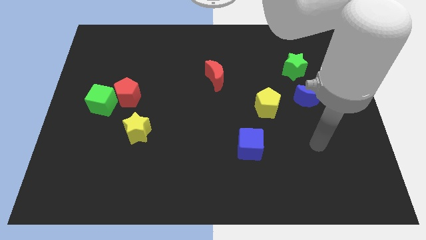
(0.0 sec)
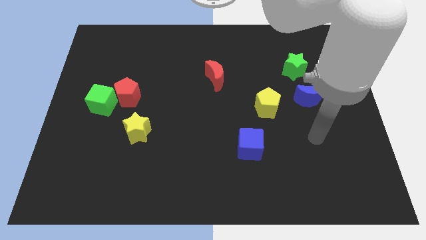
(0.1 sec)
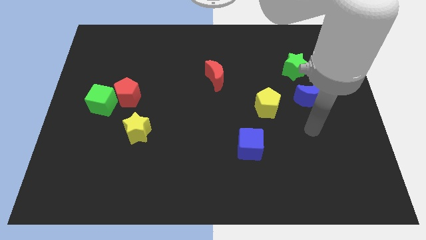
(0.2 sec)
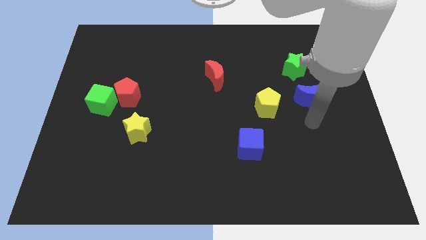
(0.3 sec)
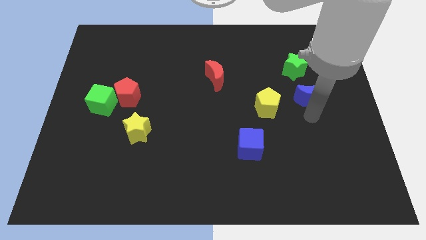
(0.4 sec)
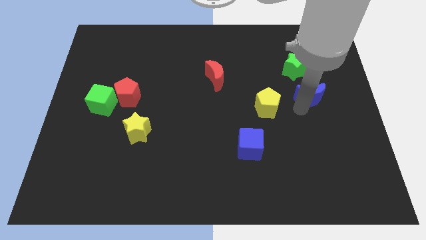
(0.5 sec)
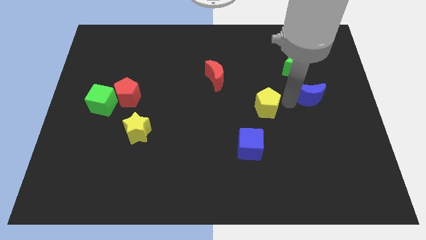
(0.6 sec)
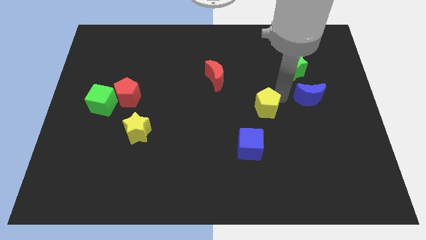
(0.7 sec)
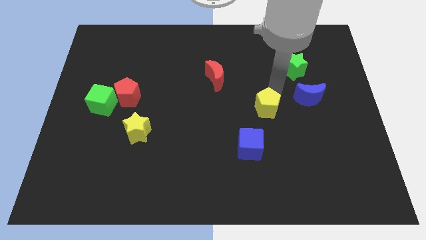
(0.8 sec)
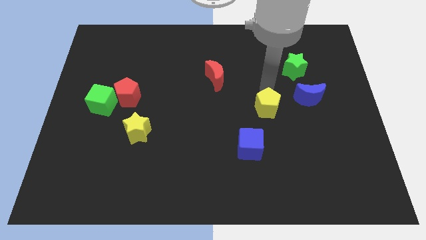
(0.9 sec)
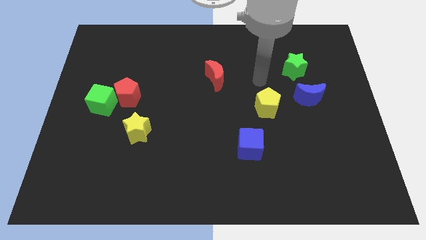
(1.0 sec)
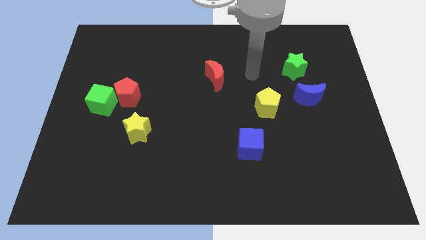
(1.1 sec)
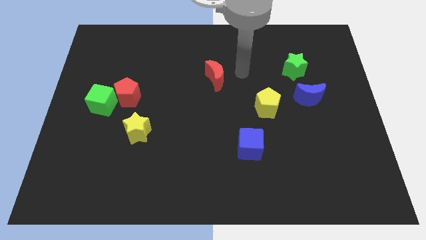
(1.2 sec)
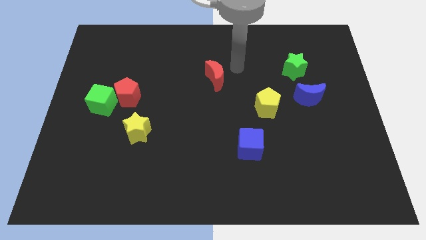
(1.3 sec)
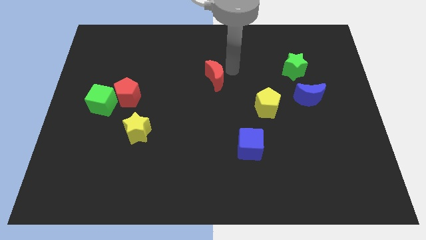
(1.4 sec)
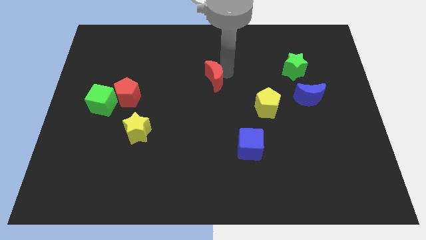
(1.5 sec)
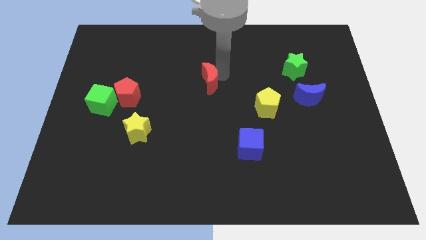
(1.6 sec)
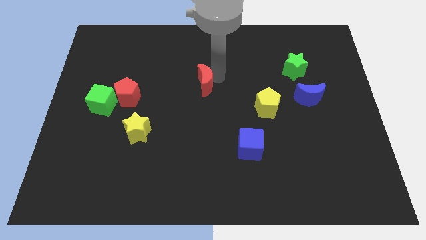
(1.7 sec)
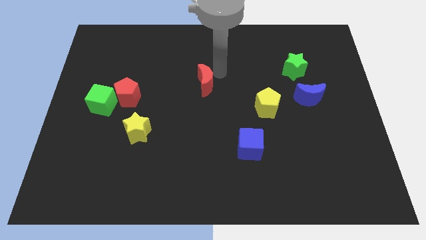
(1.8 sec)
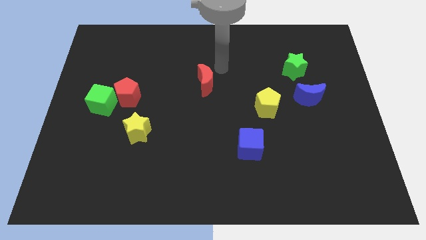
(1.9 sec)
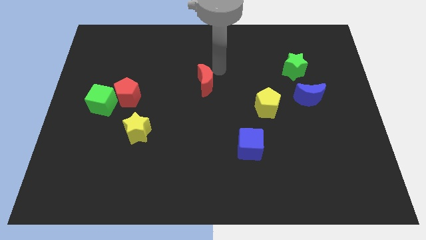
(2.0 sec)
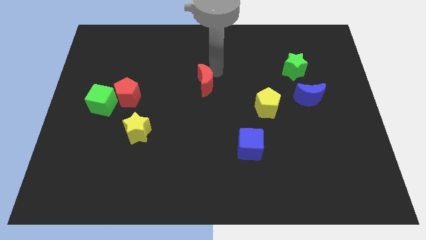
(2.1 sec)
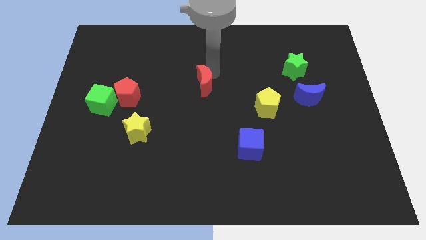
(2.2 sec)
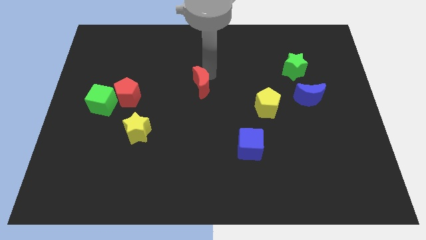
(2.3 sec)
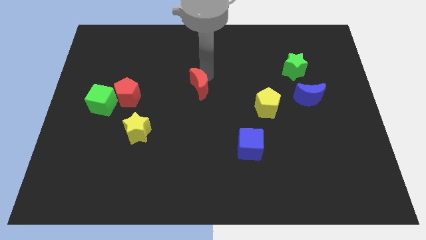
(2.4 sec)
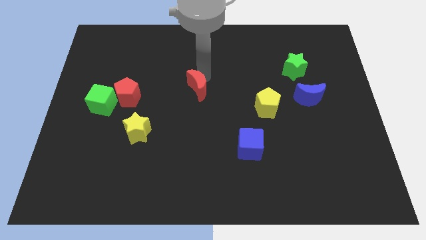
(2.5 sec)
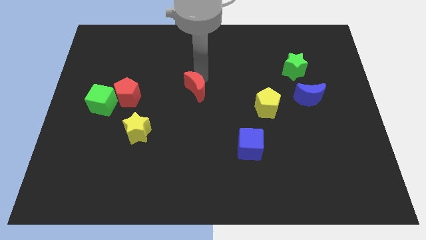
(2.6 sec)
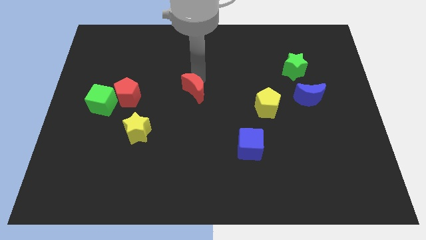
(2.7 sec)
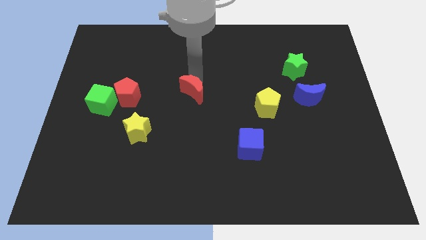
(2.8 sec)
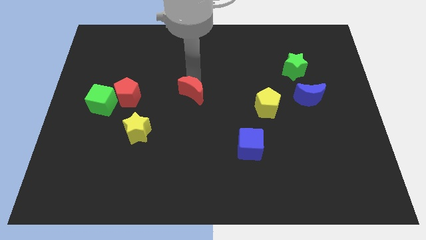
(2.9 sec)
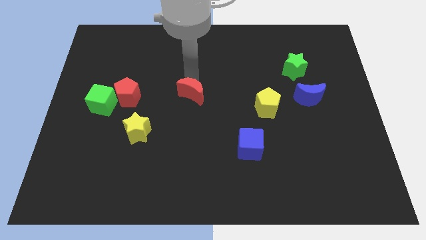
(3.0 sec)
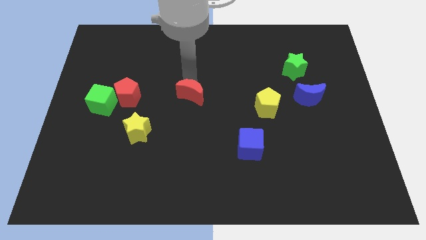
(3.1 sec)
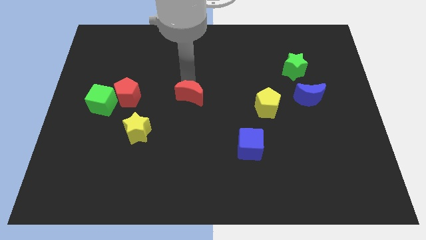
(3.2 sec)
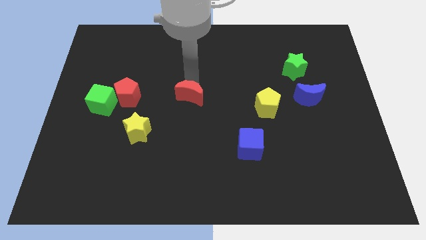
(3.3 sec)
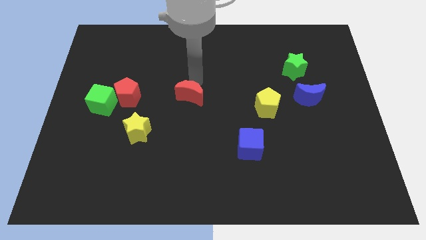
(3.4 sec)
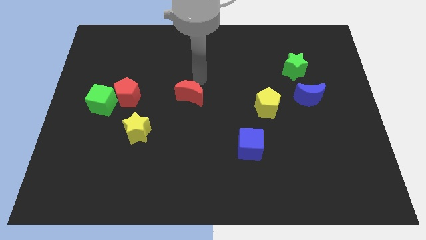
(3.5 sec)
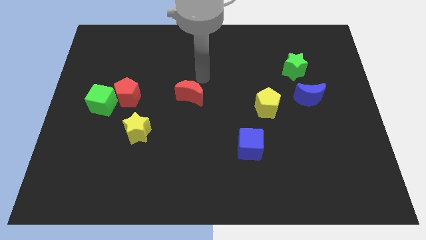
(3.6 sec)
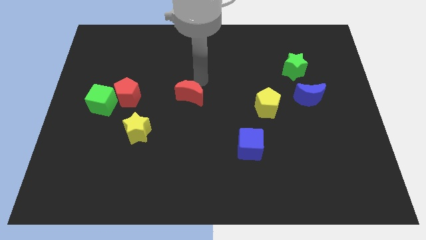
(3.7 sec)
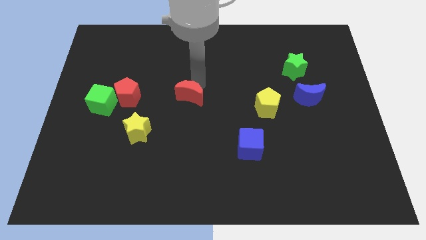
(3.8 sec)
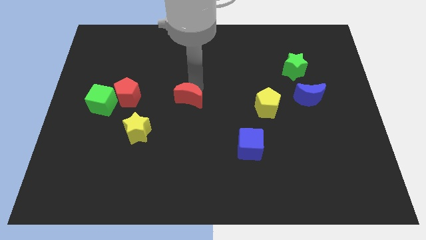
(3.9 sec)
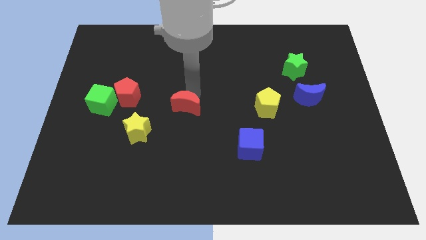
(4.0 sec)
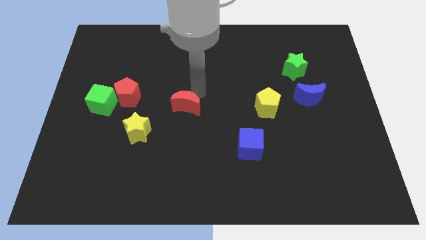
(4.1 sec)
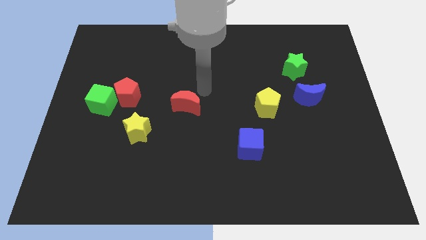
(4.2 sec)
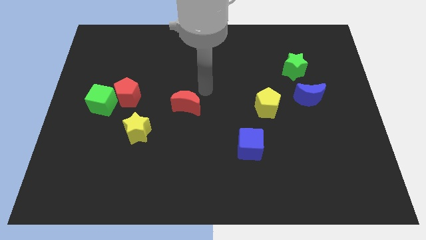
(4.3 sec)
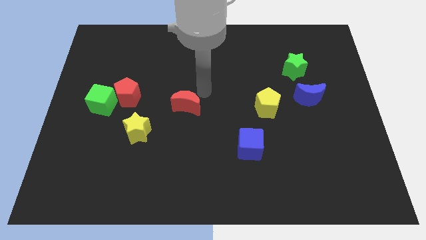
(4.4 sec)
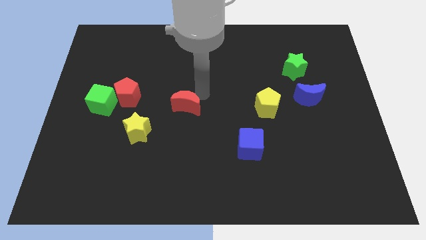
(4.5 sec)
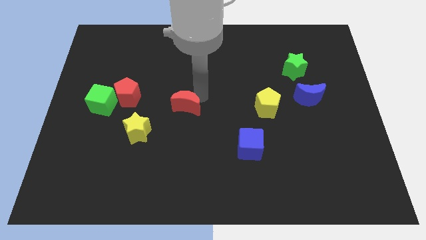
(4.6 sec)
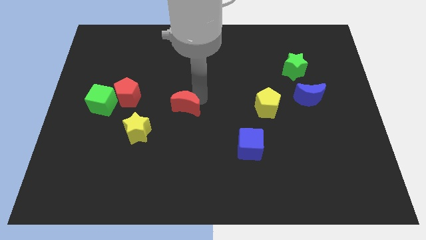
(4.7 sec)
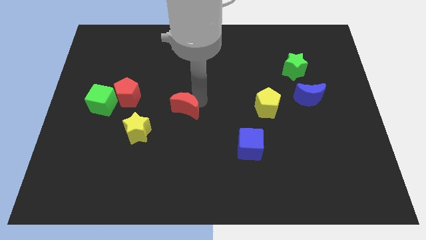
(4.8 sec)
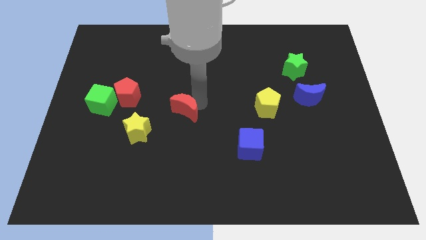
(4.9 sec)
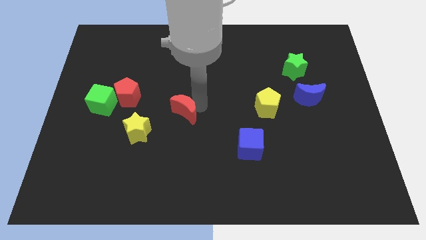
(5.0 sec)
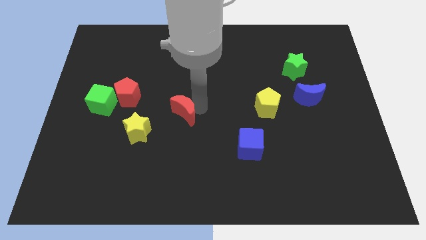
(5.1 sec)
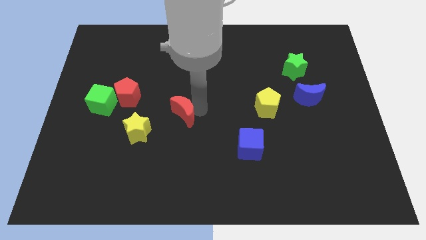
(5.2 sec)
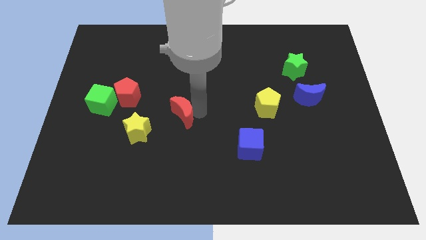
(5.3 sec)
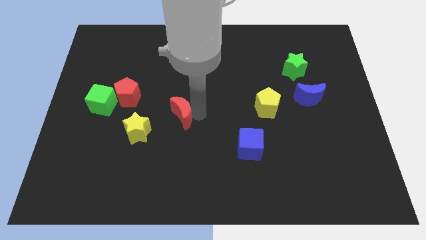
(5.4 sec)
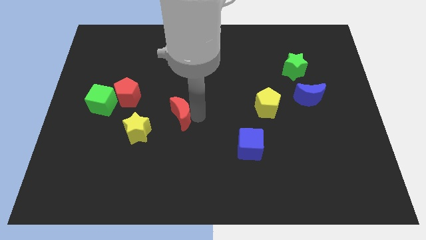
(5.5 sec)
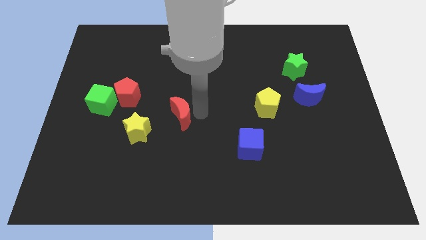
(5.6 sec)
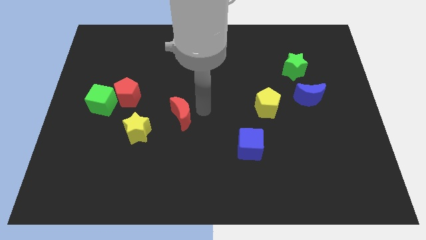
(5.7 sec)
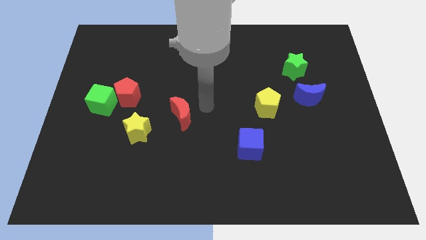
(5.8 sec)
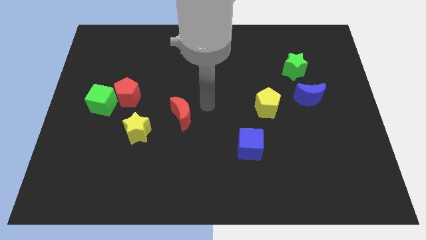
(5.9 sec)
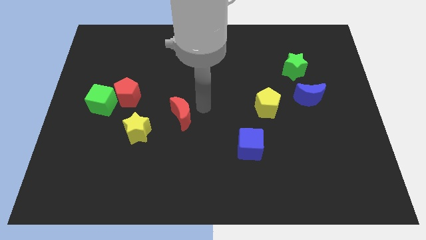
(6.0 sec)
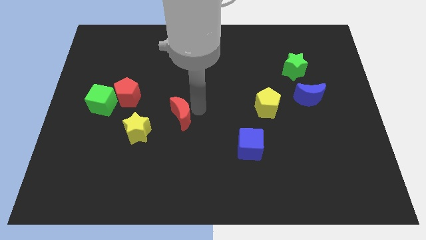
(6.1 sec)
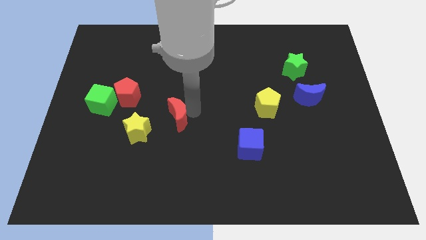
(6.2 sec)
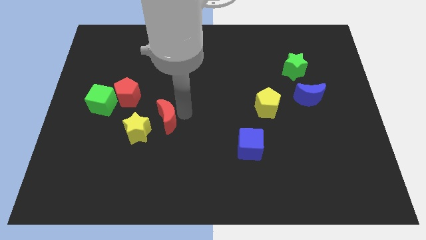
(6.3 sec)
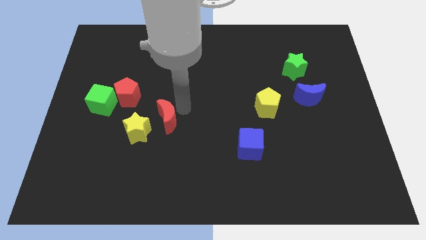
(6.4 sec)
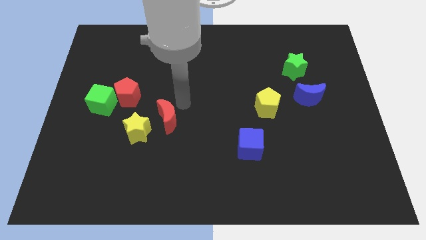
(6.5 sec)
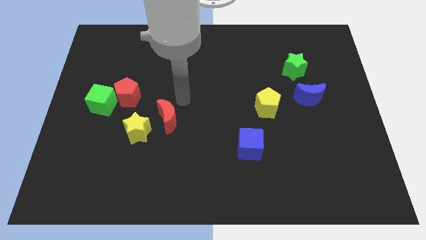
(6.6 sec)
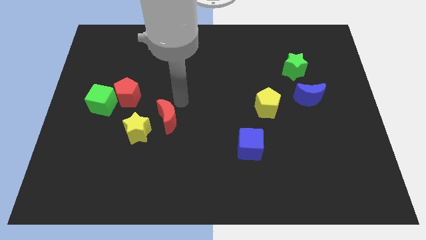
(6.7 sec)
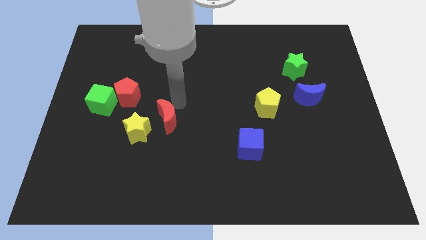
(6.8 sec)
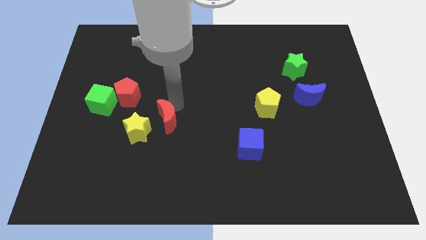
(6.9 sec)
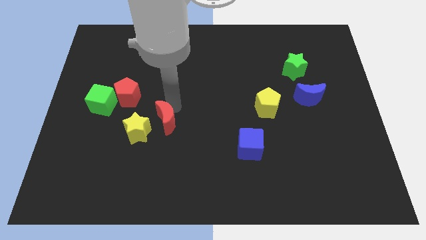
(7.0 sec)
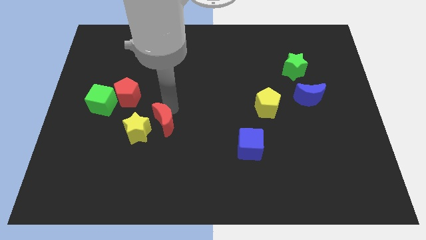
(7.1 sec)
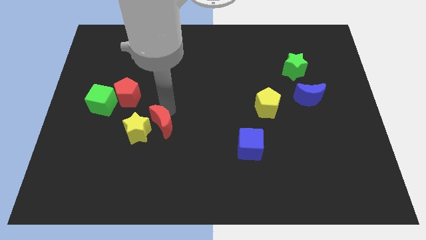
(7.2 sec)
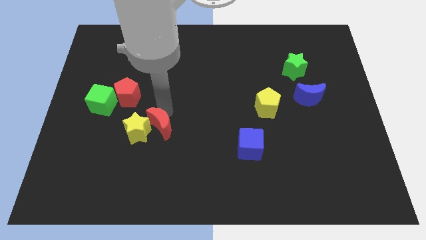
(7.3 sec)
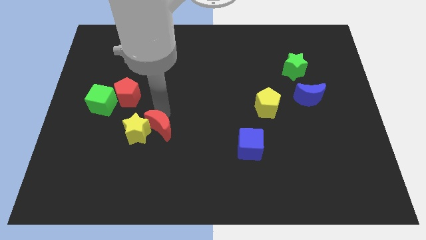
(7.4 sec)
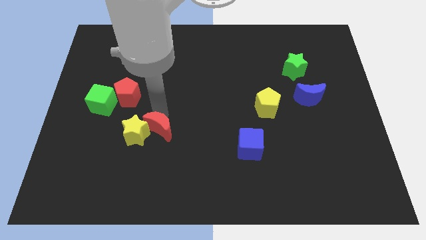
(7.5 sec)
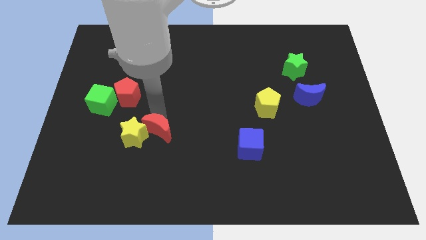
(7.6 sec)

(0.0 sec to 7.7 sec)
slide the red moon down and to the left
